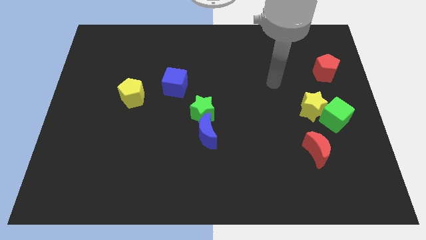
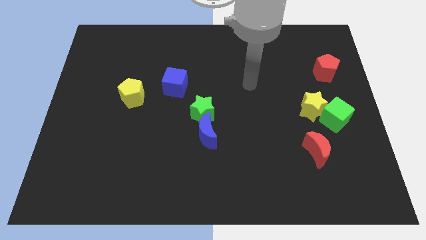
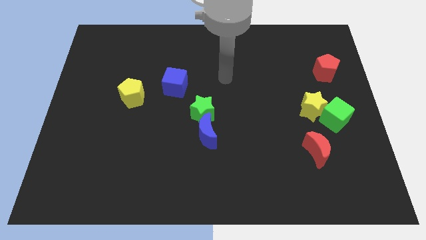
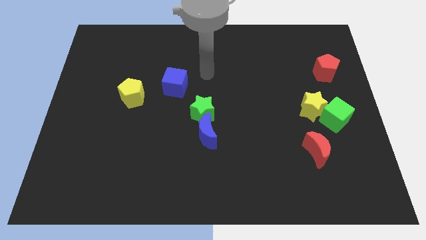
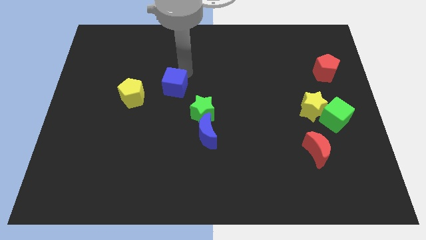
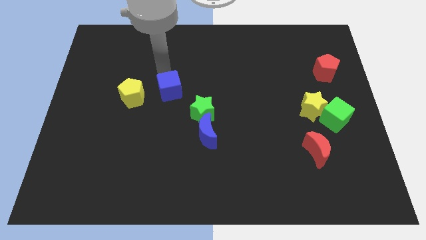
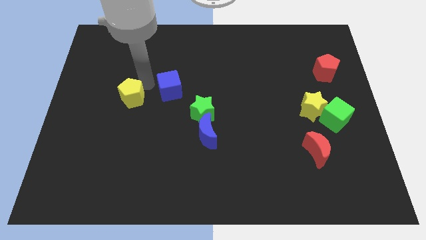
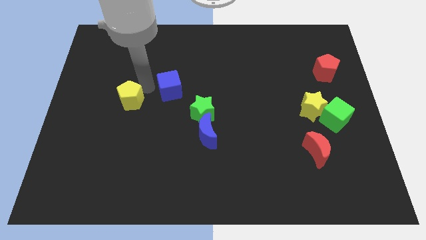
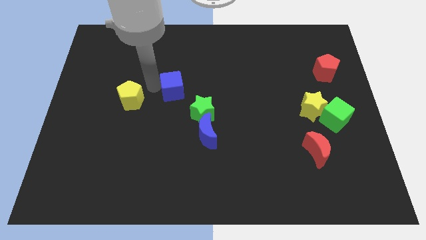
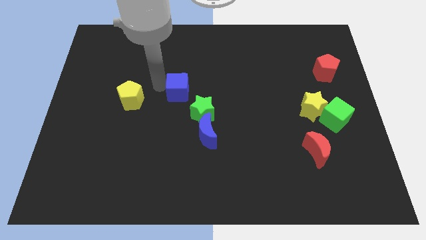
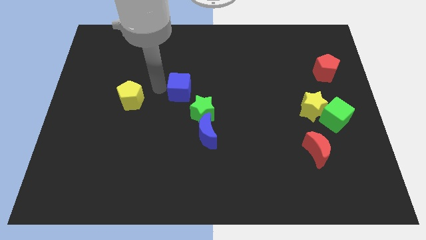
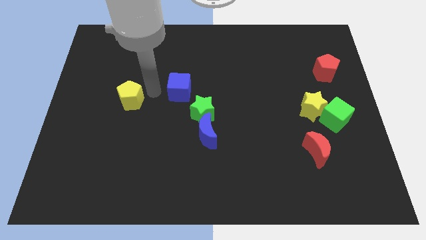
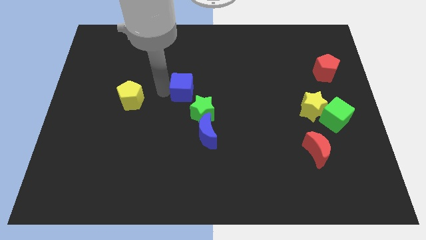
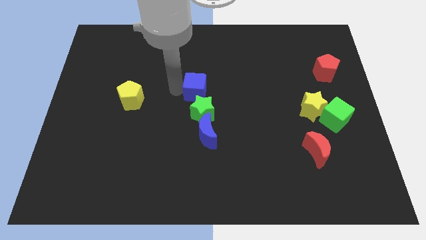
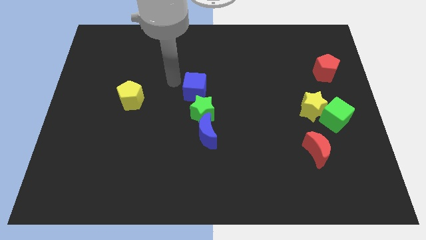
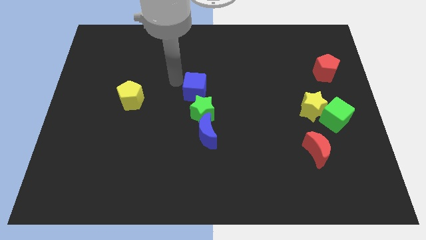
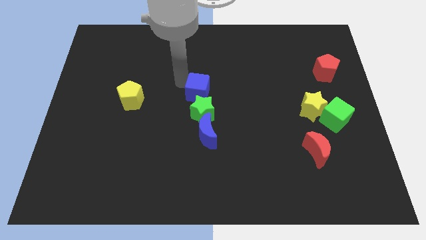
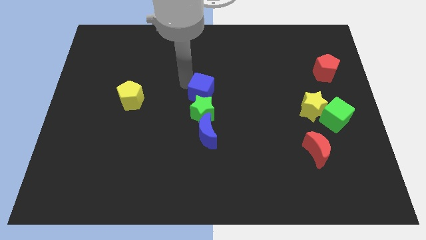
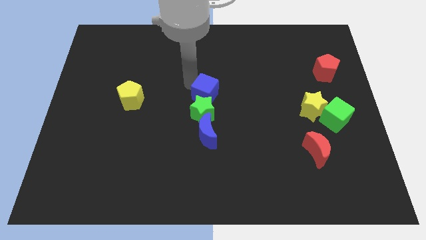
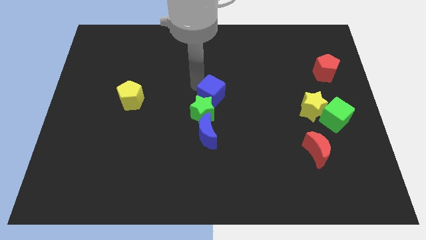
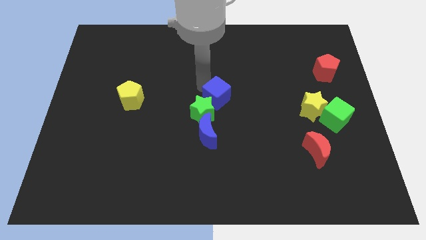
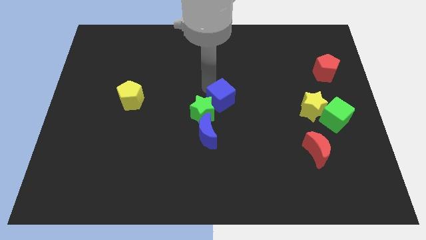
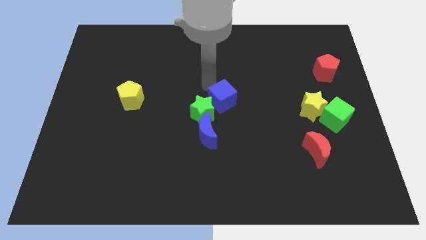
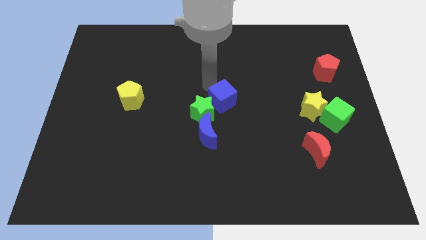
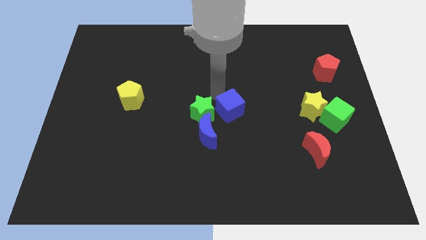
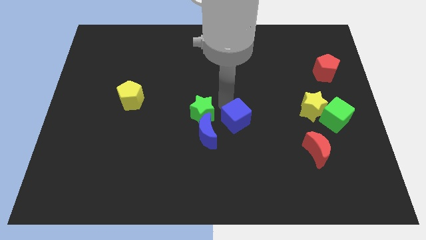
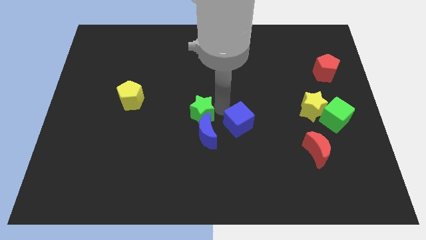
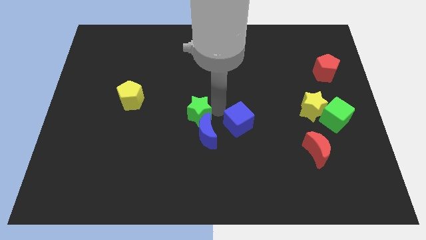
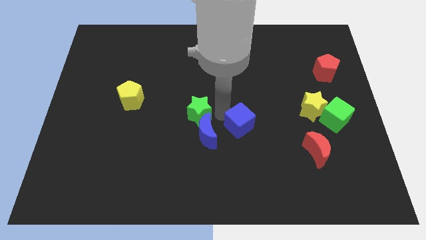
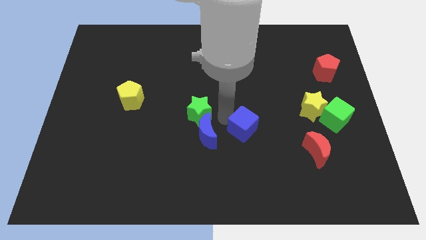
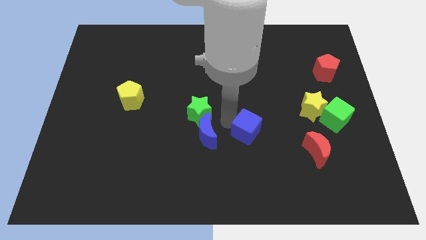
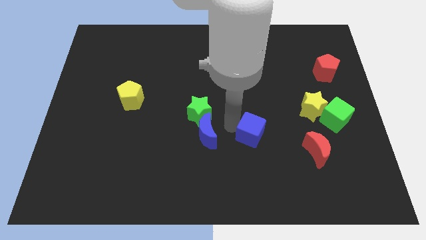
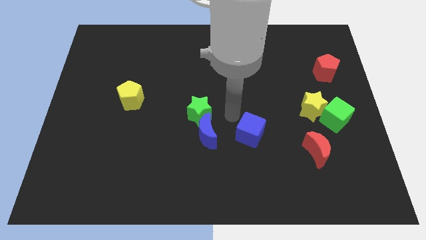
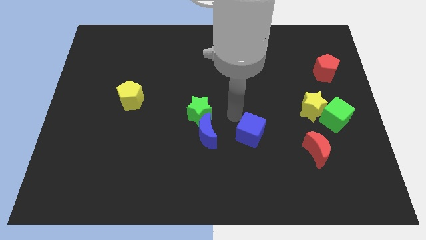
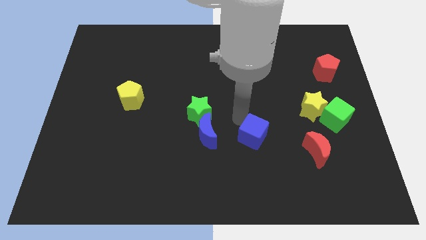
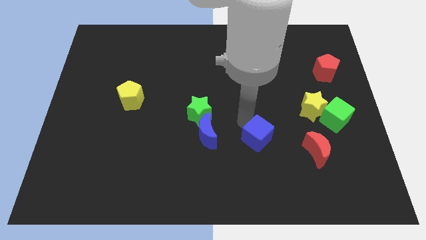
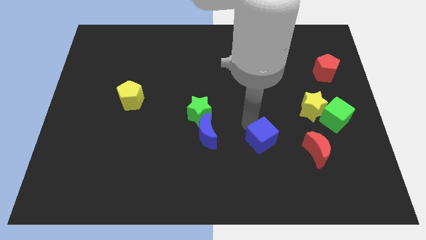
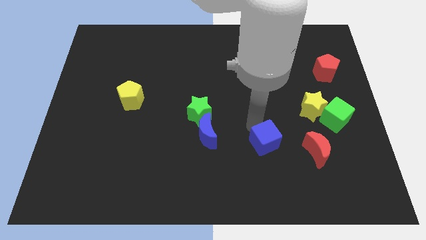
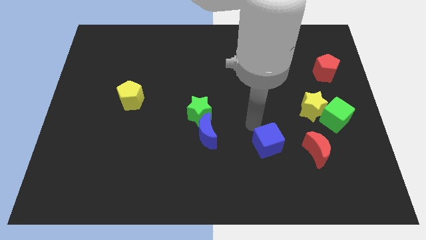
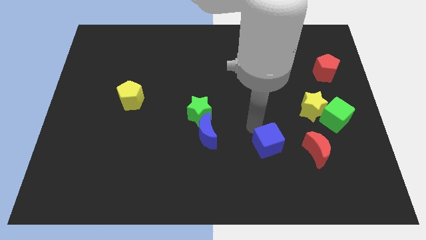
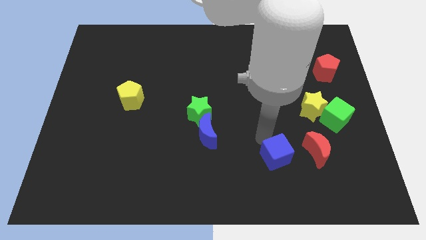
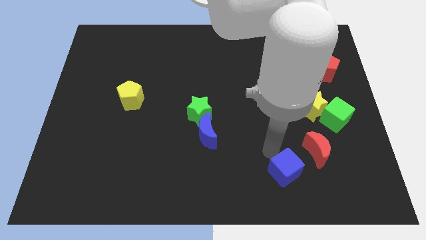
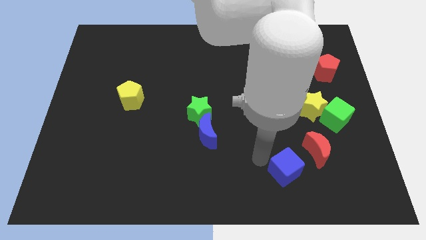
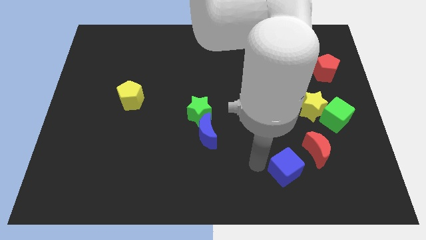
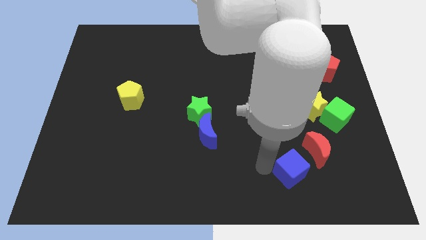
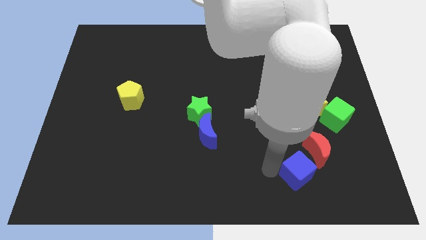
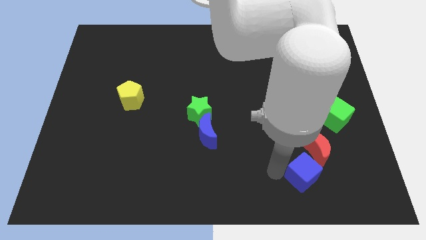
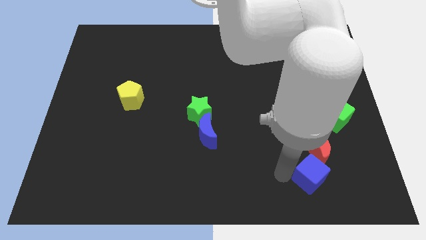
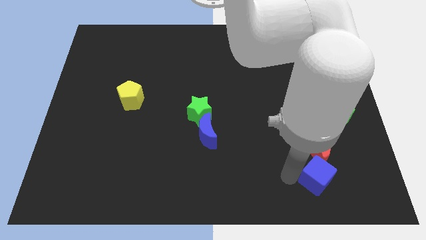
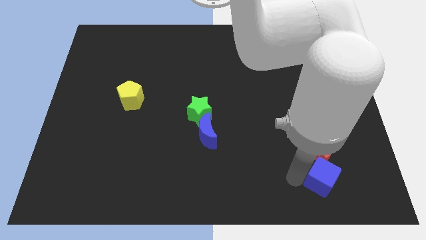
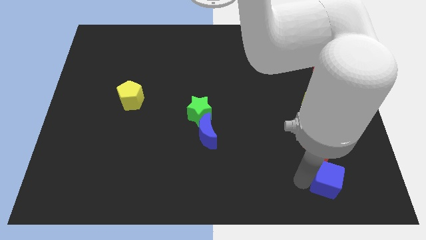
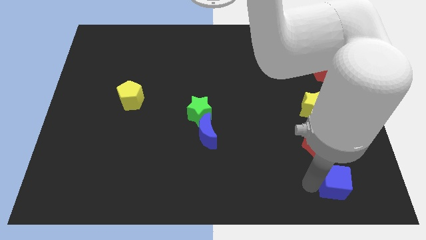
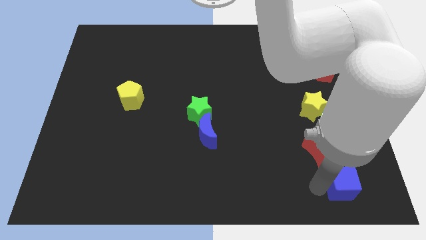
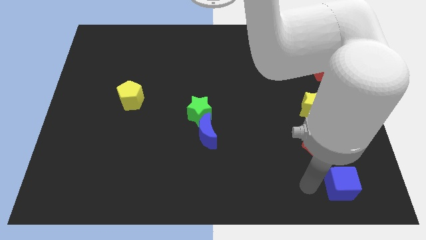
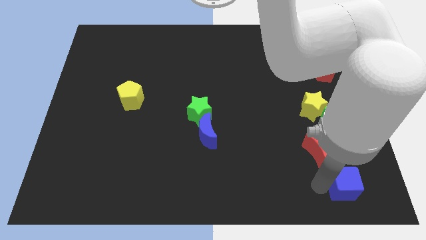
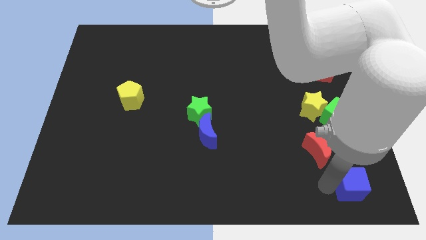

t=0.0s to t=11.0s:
put the blue cube to the bottom right of the board
